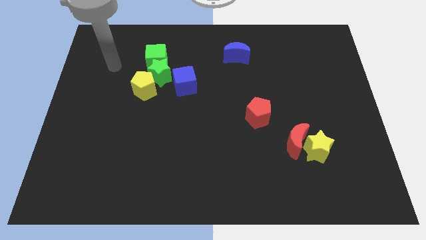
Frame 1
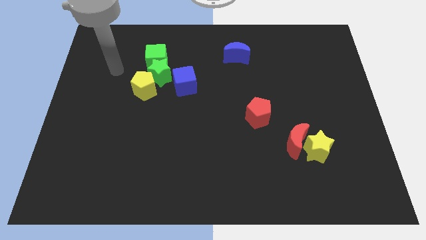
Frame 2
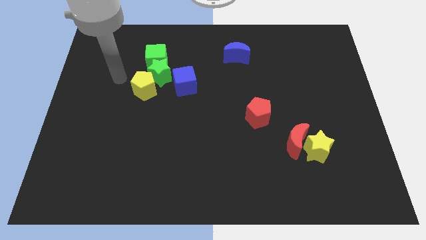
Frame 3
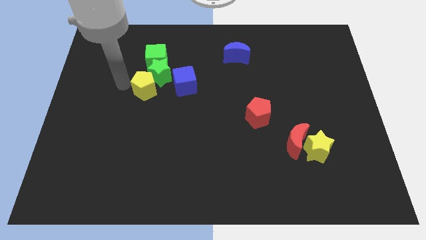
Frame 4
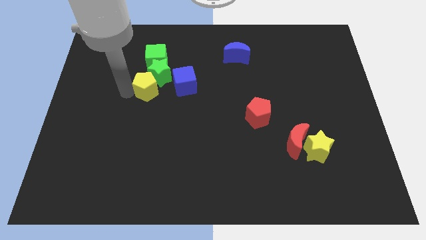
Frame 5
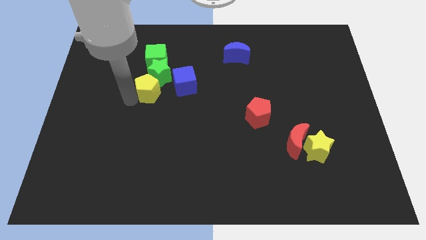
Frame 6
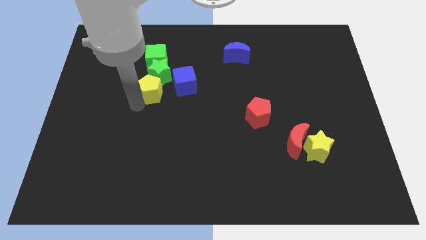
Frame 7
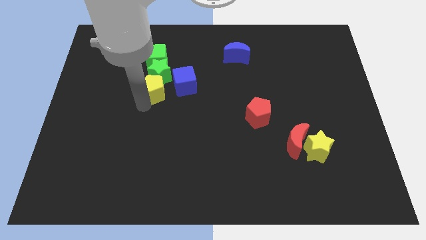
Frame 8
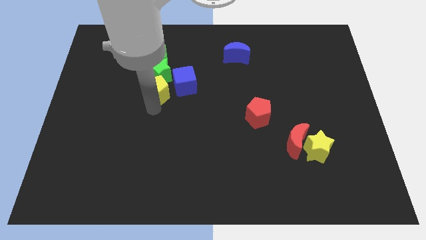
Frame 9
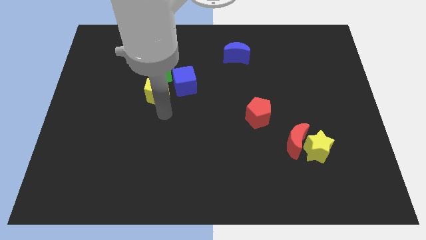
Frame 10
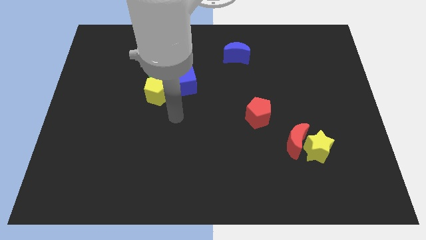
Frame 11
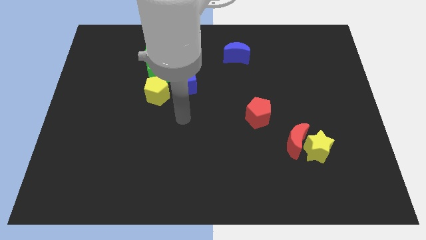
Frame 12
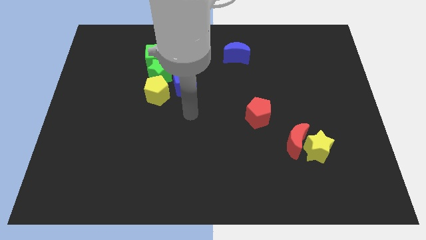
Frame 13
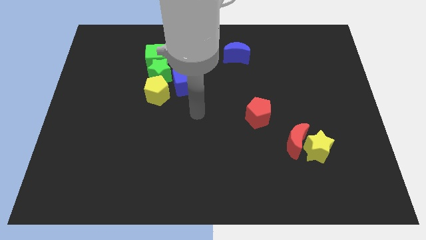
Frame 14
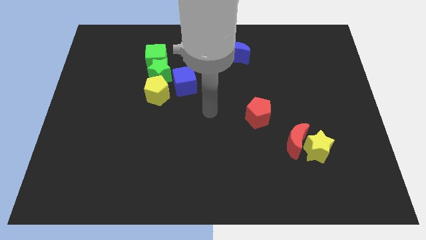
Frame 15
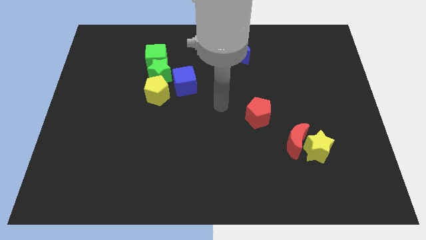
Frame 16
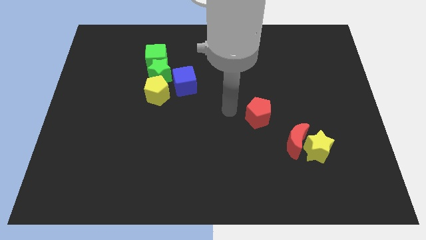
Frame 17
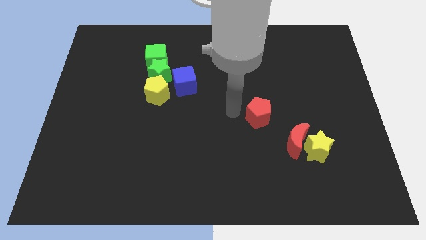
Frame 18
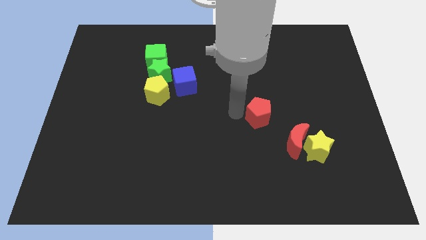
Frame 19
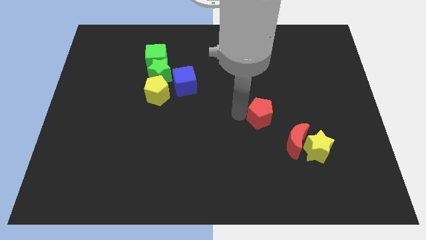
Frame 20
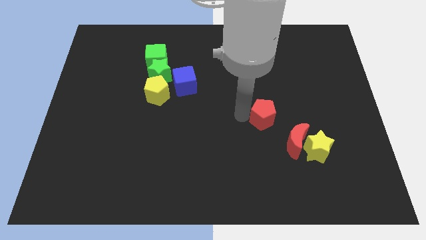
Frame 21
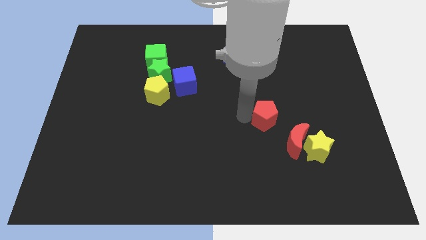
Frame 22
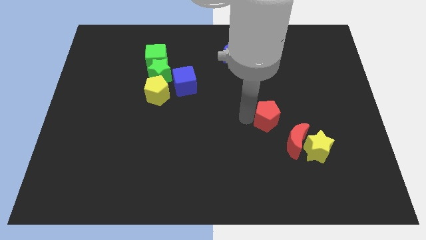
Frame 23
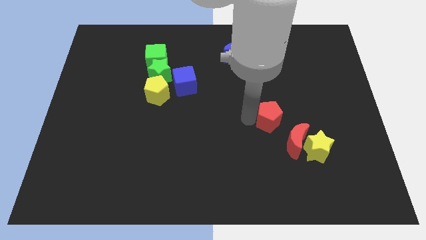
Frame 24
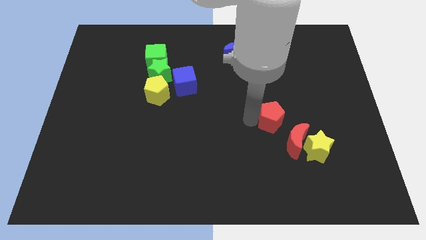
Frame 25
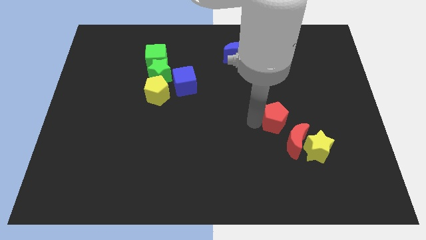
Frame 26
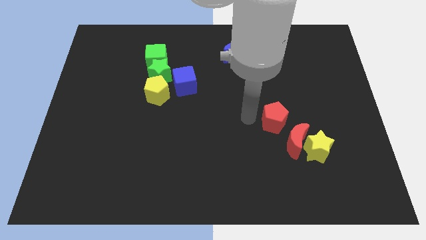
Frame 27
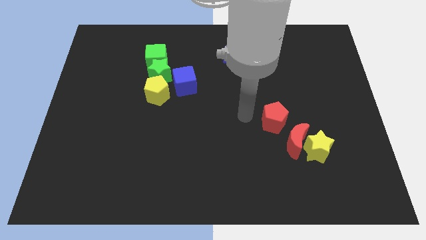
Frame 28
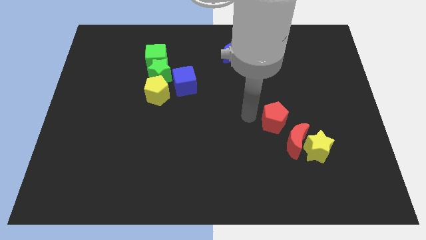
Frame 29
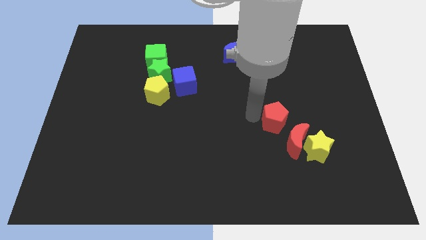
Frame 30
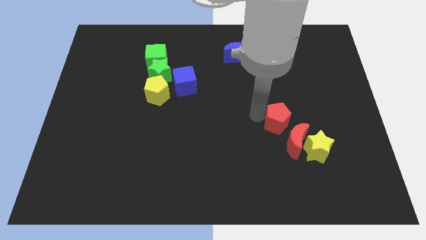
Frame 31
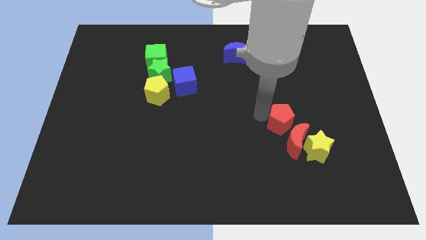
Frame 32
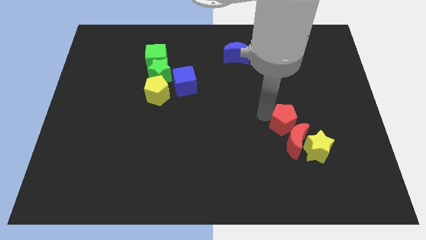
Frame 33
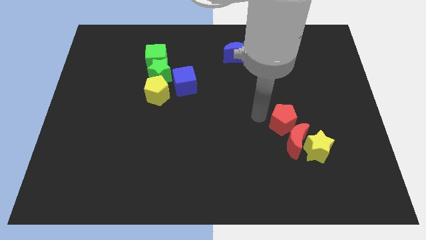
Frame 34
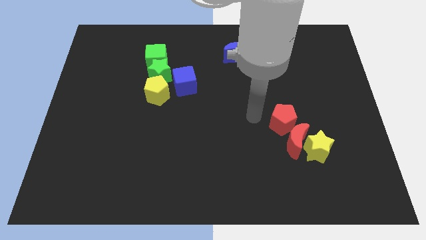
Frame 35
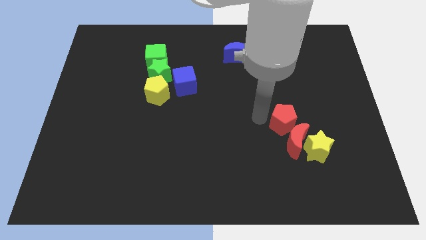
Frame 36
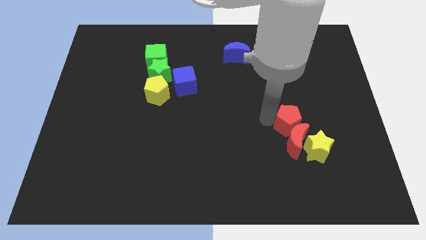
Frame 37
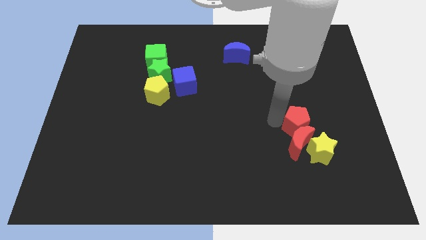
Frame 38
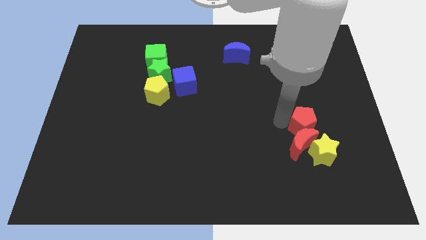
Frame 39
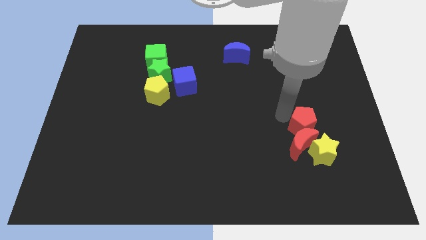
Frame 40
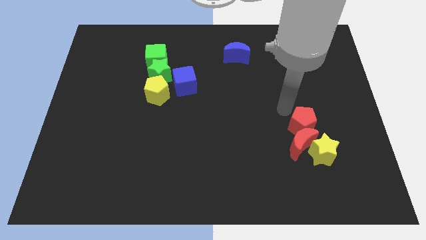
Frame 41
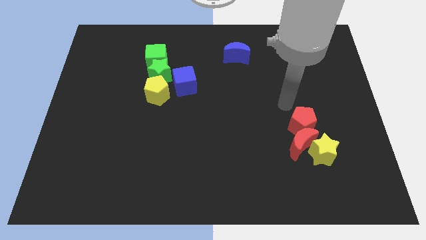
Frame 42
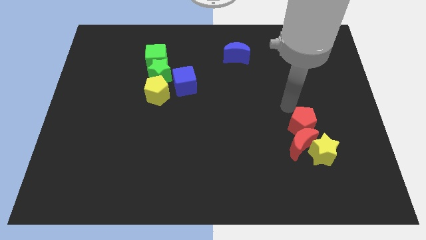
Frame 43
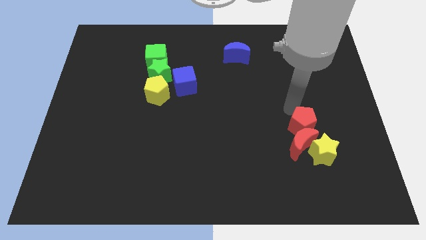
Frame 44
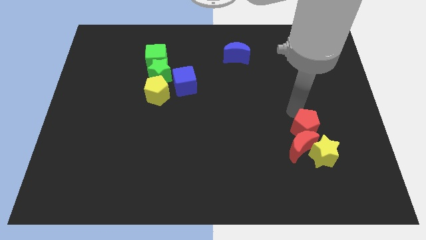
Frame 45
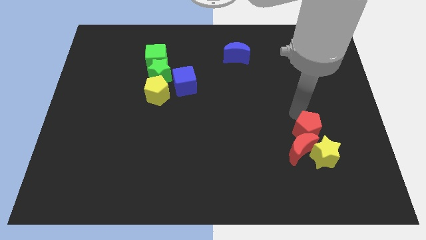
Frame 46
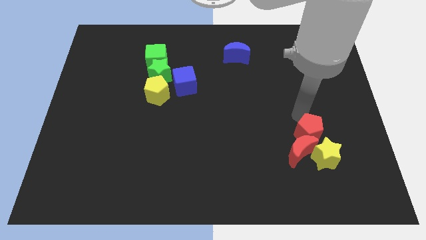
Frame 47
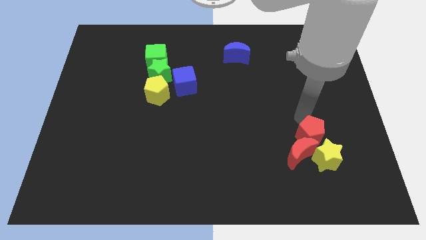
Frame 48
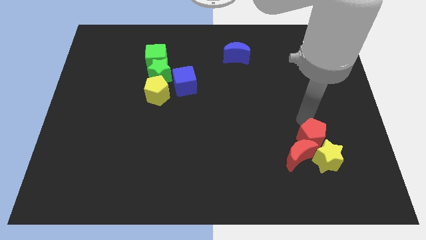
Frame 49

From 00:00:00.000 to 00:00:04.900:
put the red pentagon to the yellow star

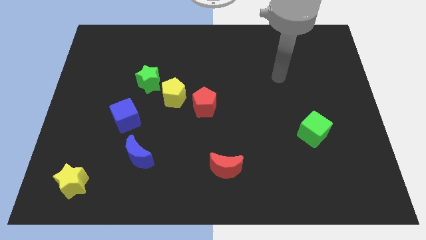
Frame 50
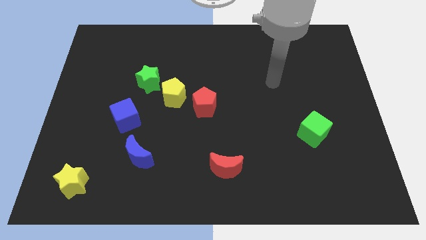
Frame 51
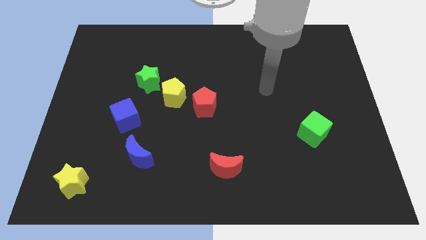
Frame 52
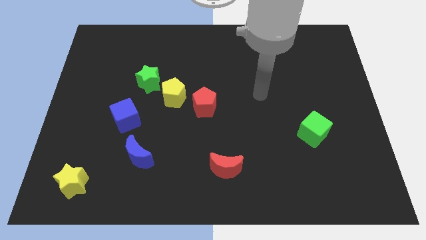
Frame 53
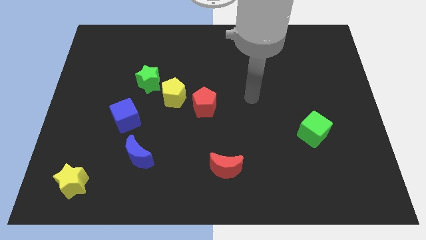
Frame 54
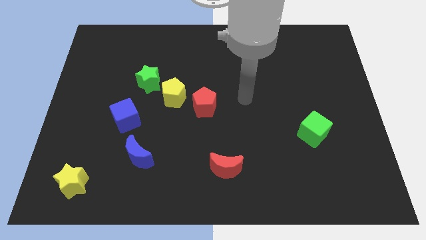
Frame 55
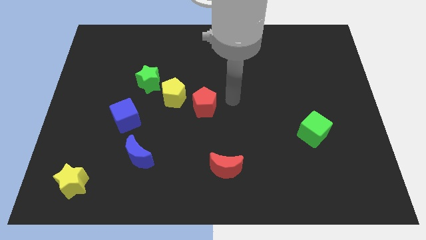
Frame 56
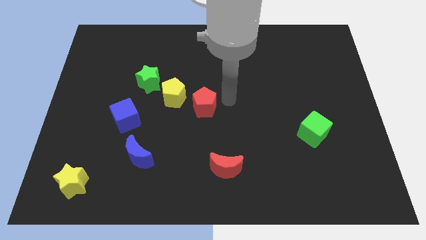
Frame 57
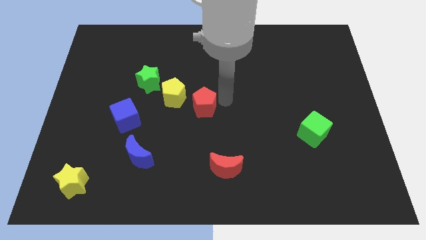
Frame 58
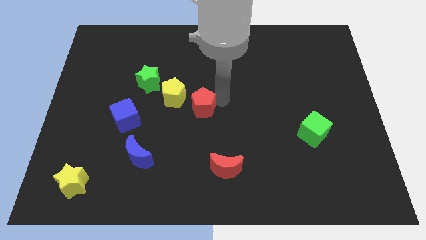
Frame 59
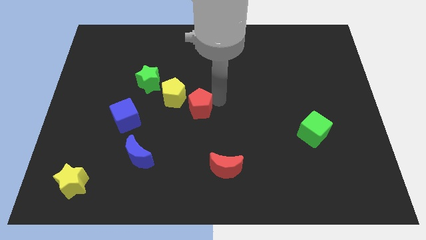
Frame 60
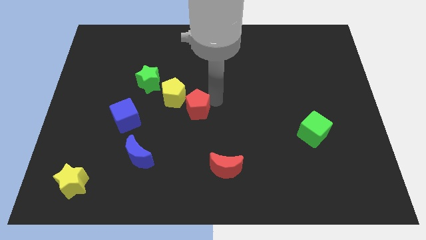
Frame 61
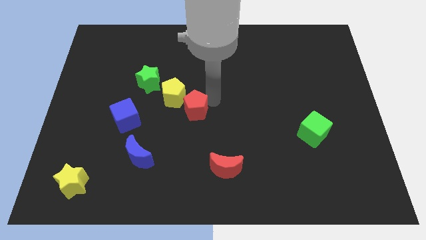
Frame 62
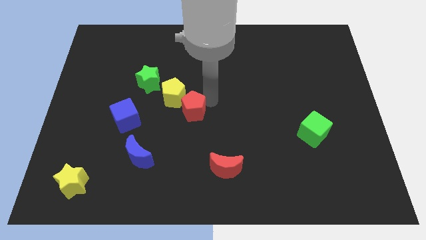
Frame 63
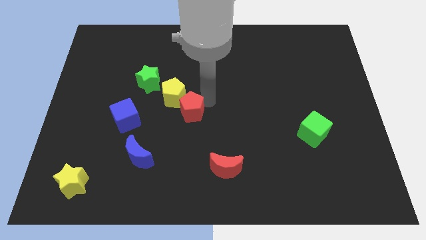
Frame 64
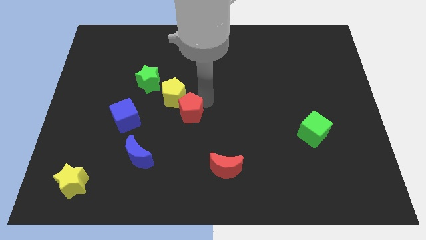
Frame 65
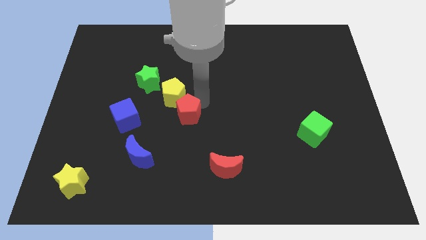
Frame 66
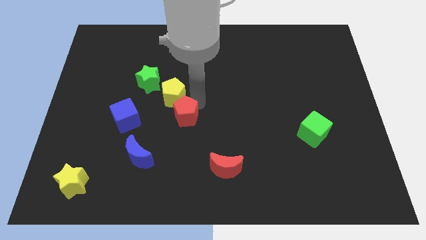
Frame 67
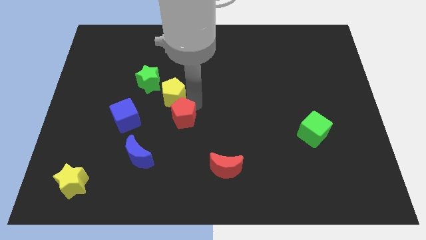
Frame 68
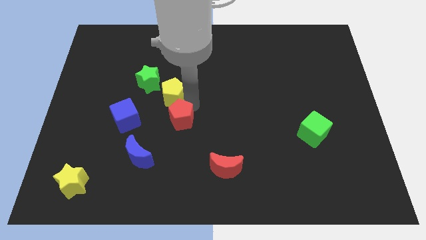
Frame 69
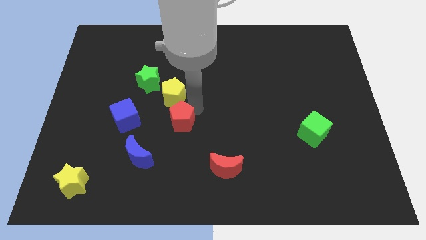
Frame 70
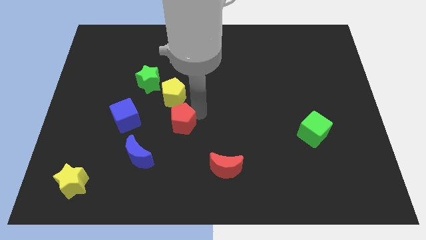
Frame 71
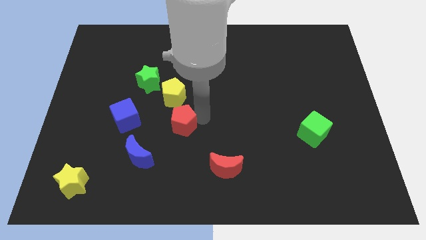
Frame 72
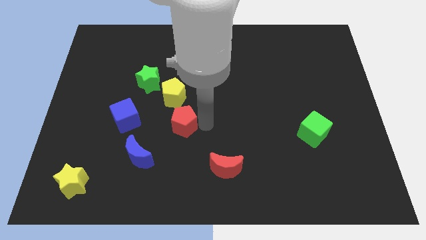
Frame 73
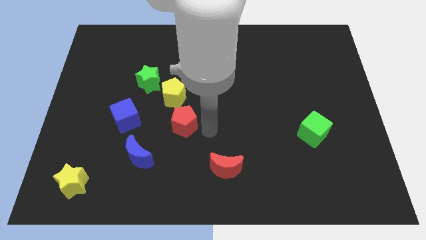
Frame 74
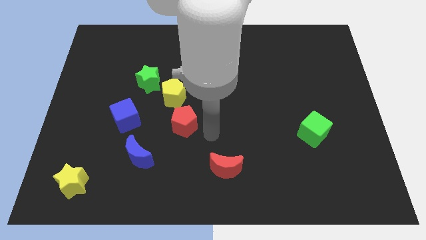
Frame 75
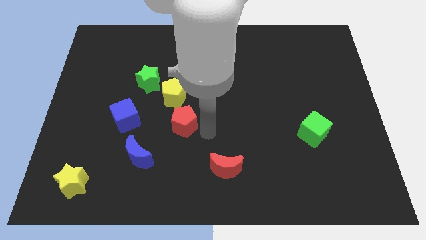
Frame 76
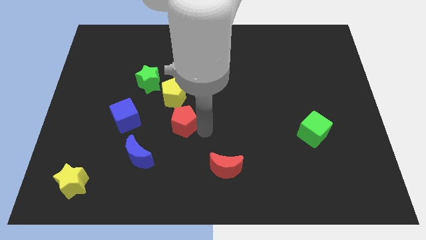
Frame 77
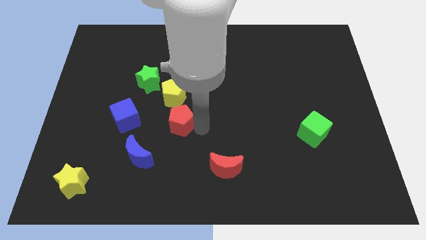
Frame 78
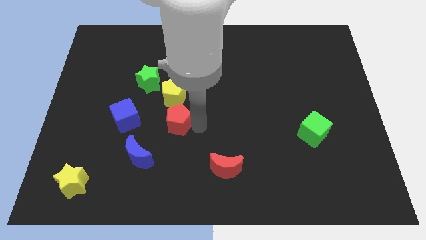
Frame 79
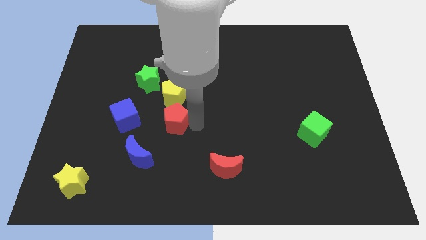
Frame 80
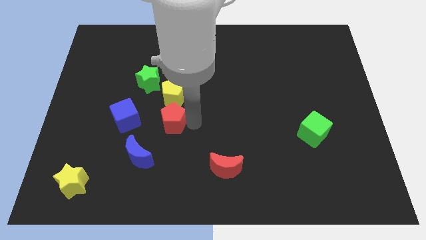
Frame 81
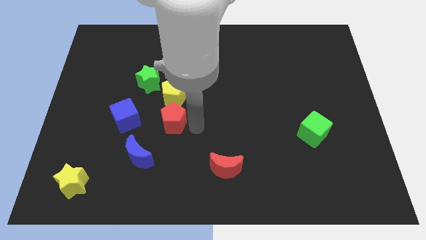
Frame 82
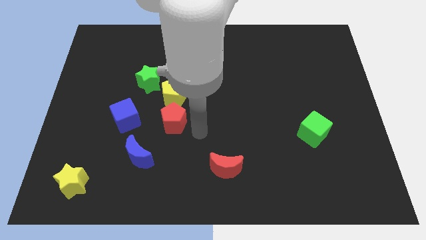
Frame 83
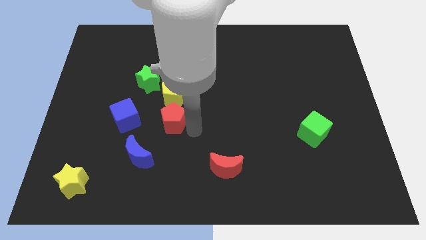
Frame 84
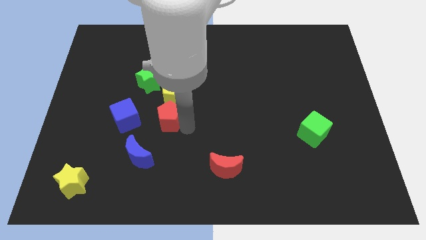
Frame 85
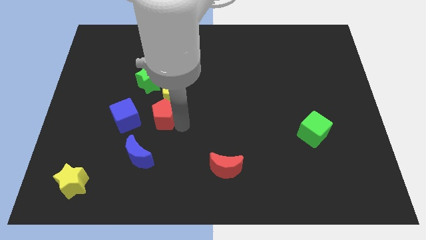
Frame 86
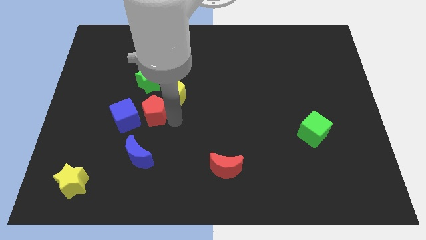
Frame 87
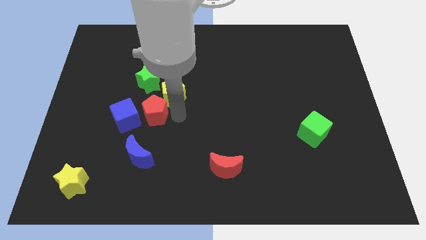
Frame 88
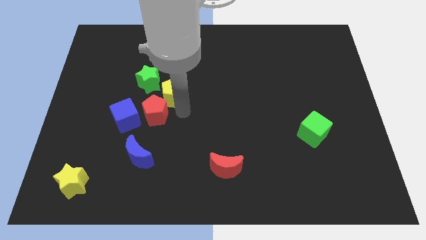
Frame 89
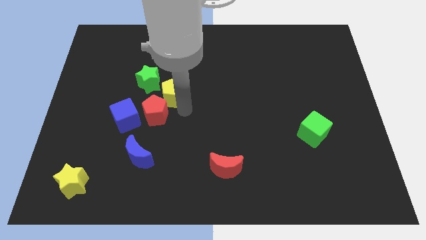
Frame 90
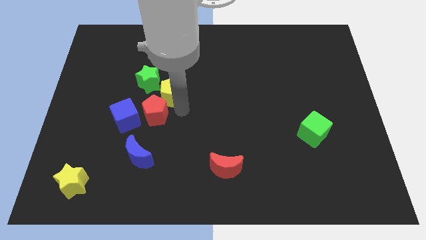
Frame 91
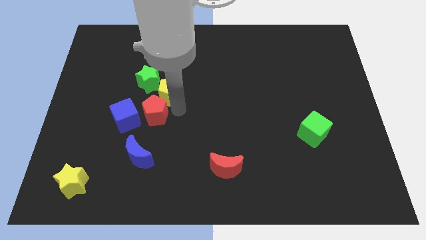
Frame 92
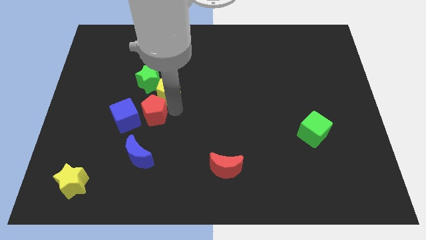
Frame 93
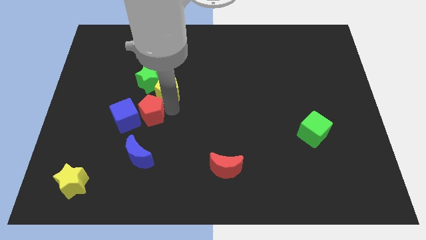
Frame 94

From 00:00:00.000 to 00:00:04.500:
slide the red pentagon towards the blue cube
